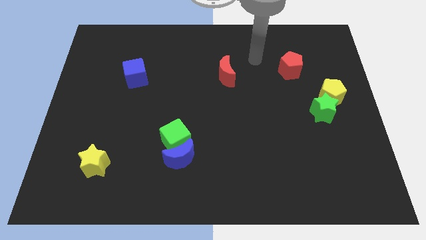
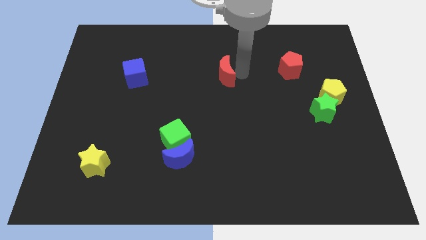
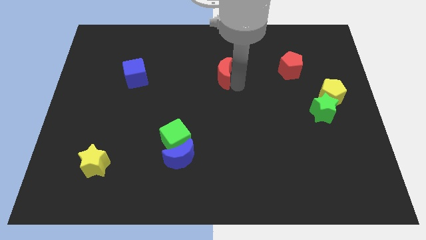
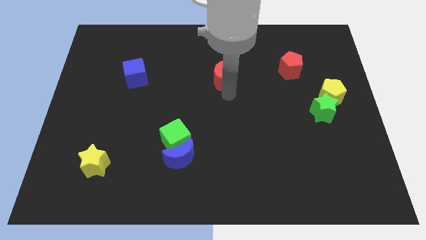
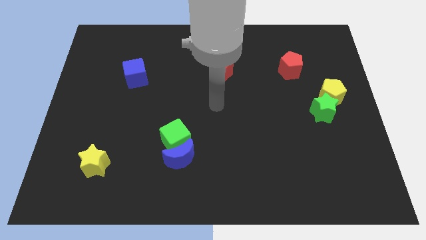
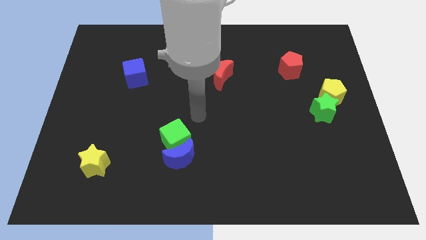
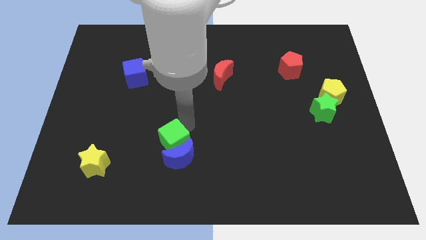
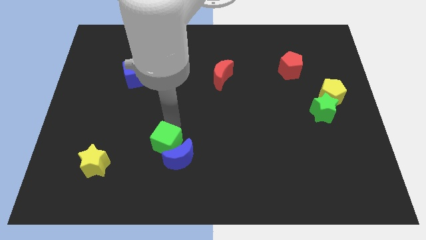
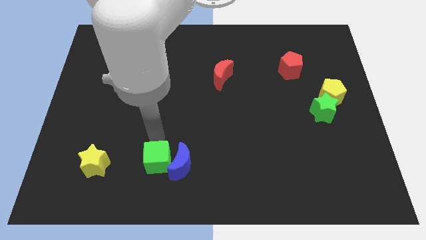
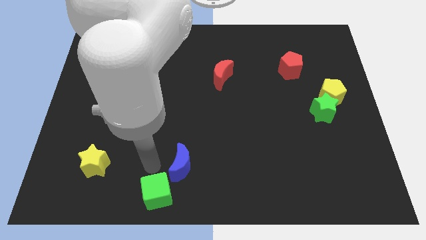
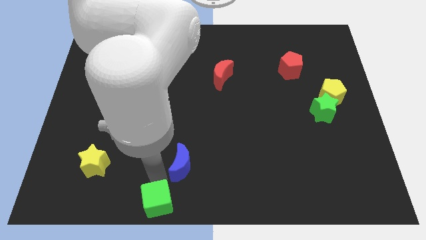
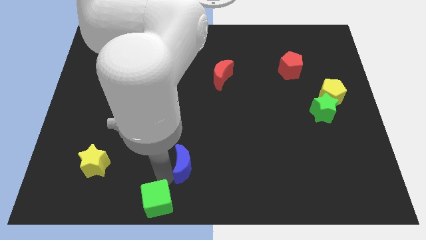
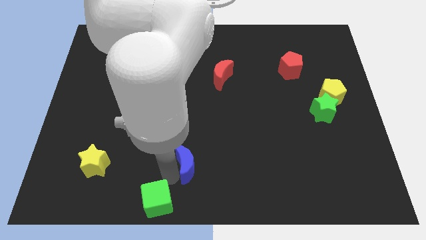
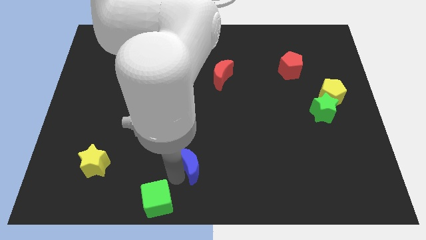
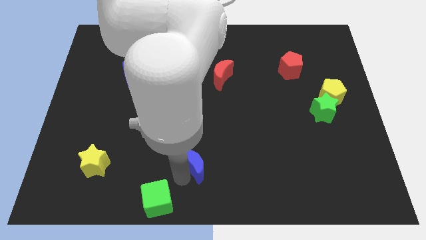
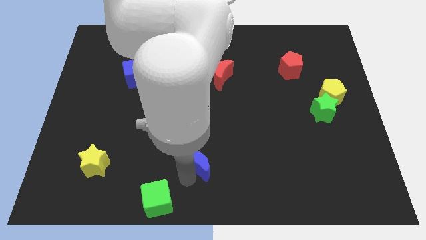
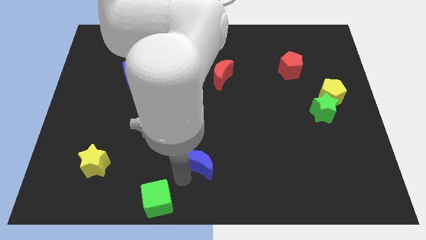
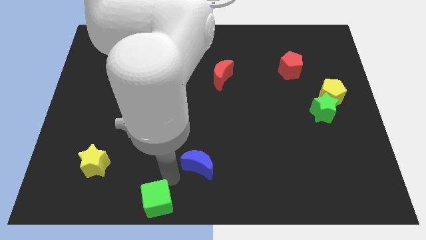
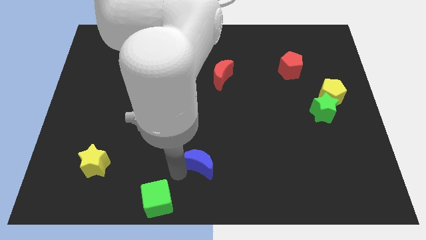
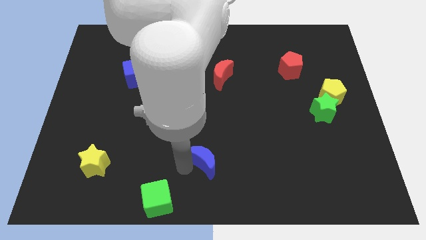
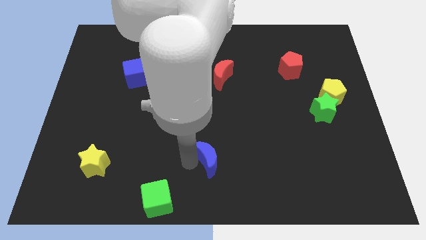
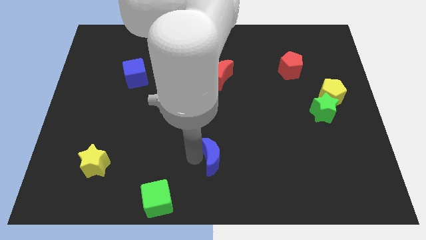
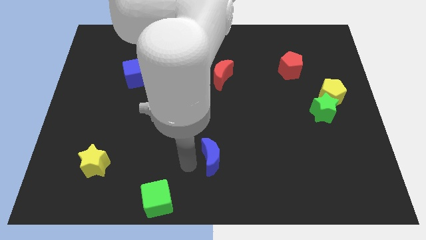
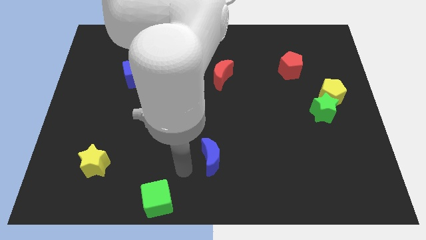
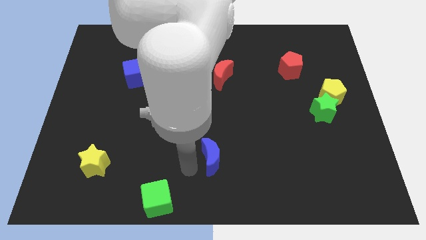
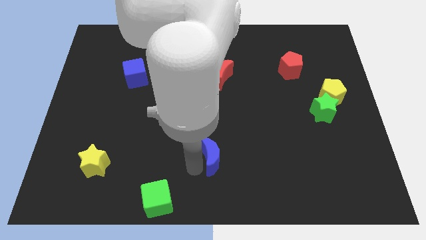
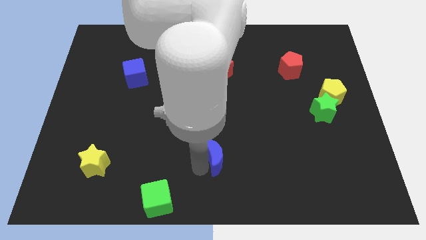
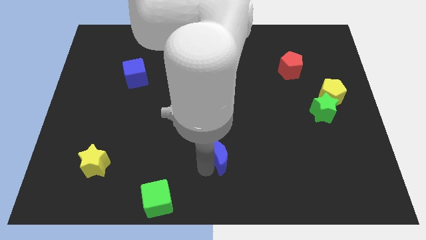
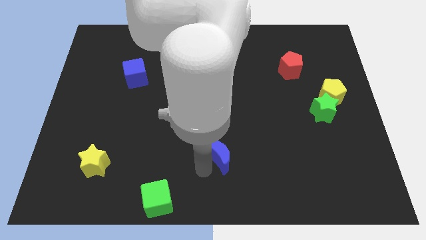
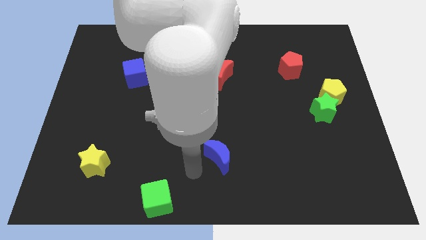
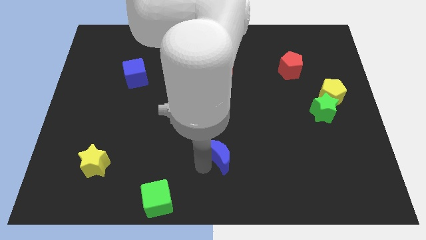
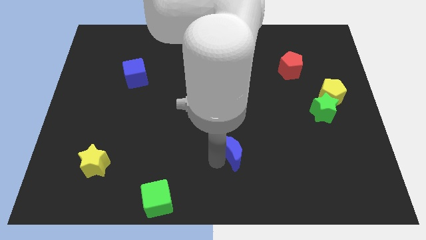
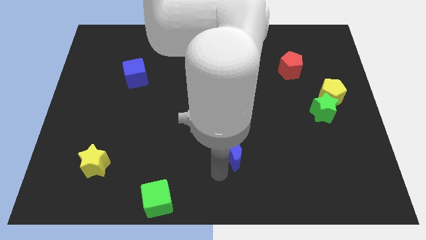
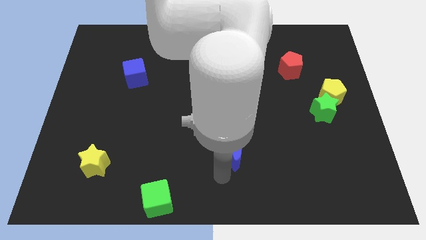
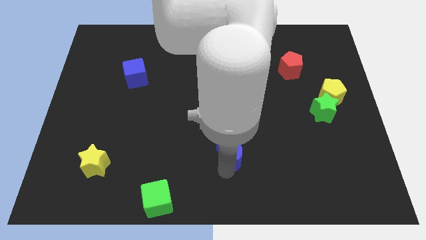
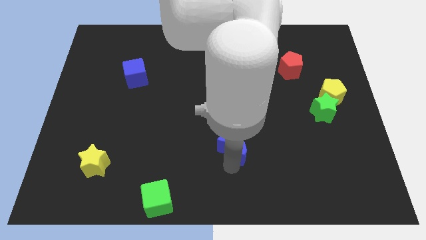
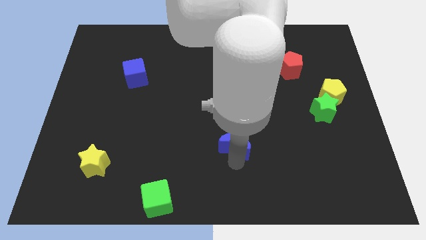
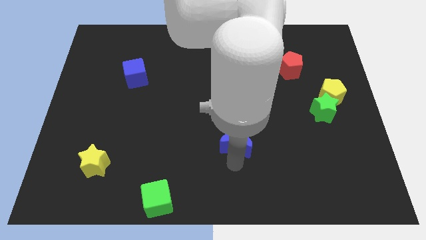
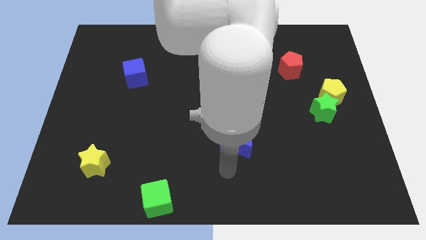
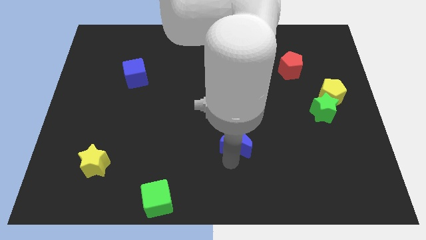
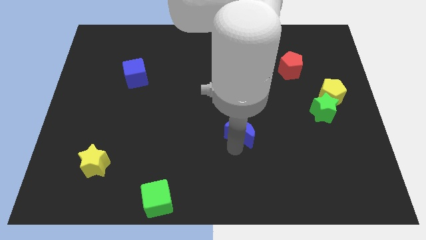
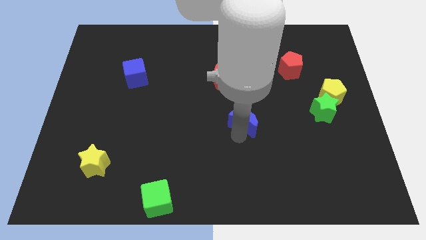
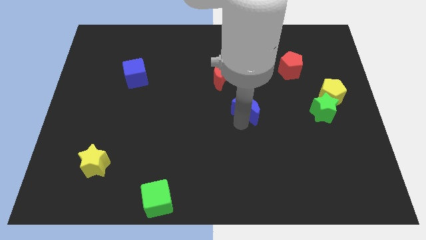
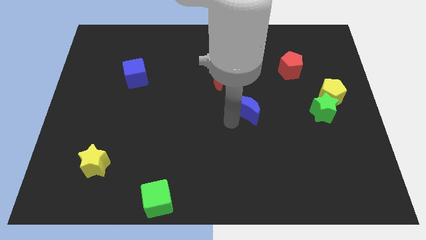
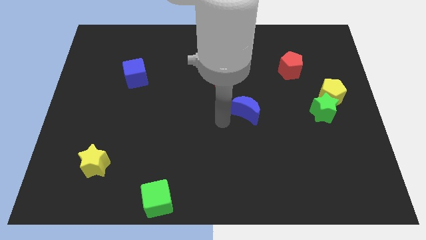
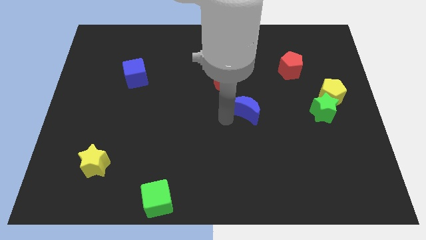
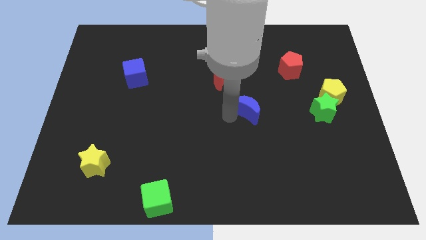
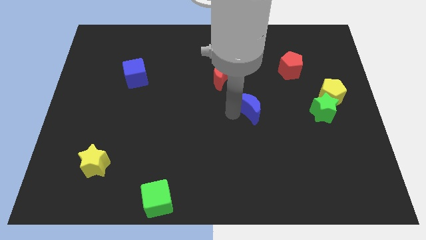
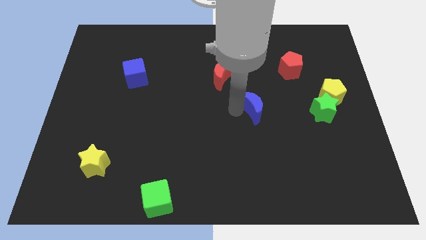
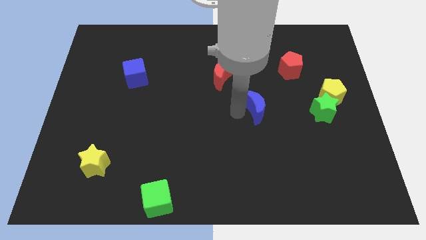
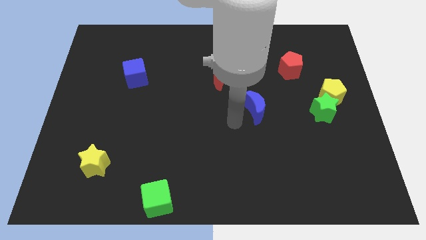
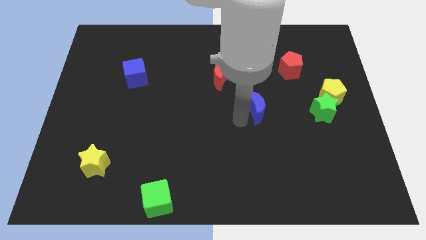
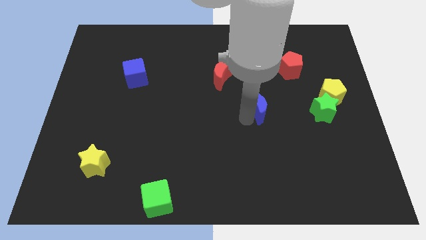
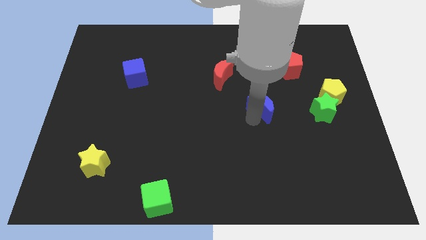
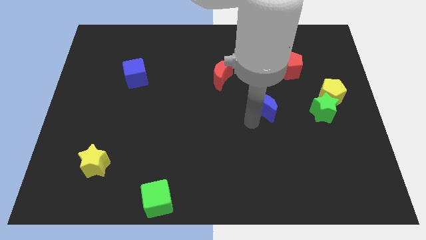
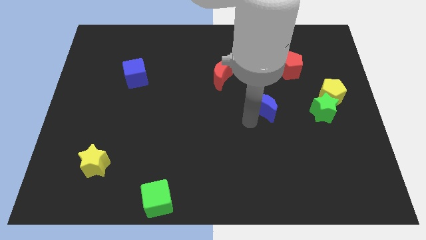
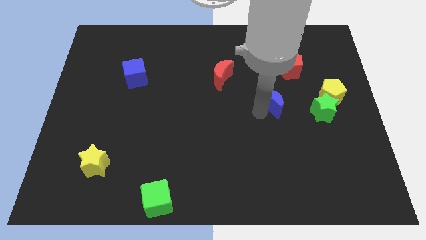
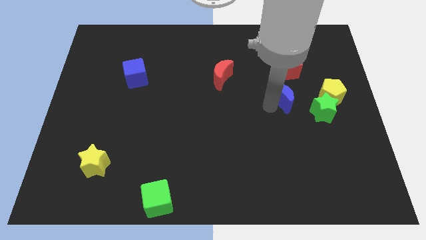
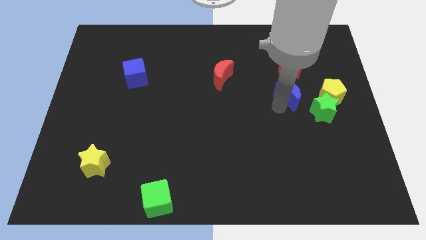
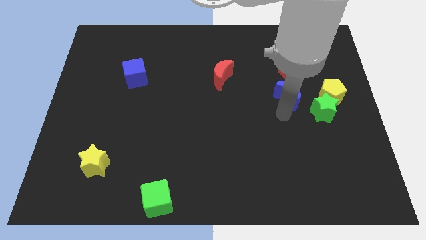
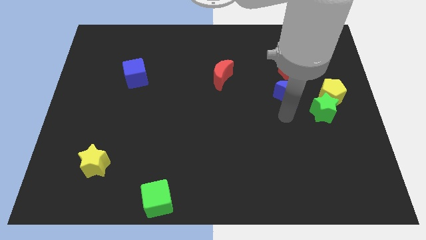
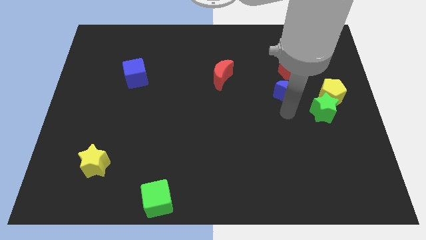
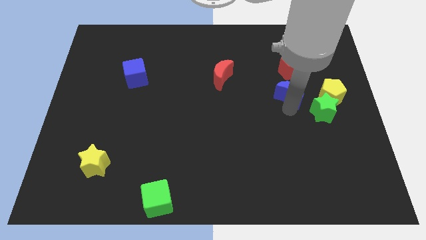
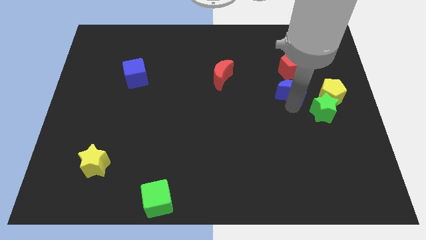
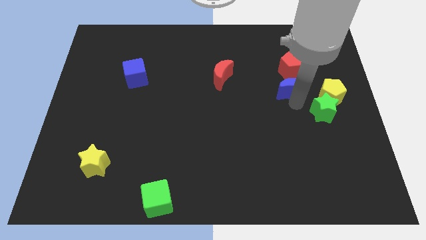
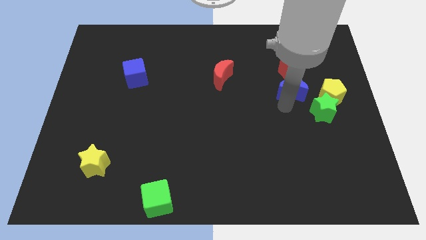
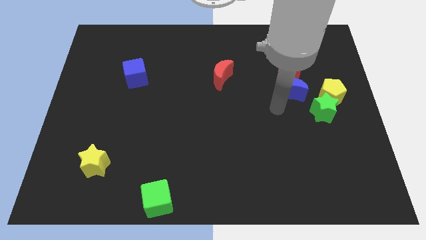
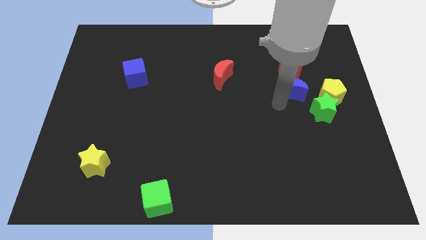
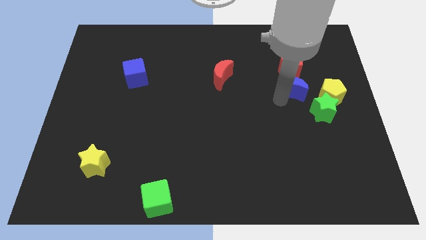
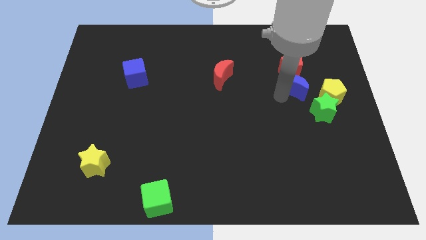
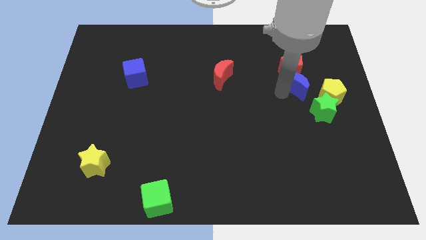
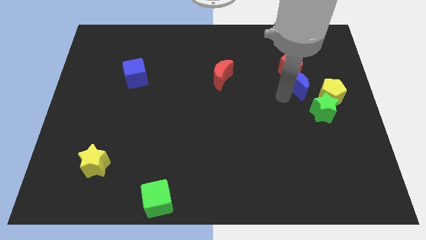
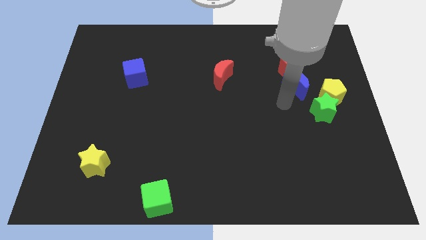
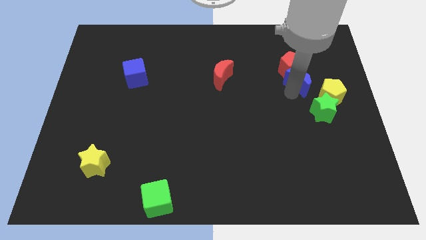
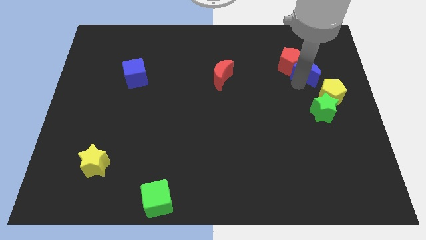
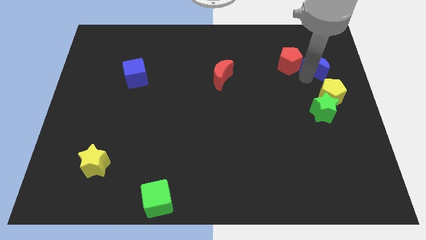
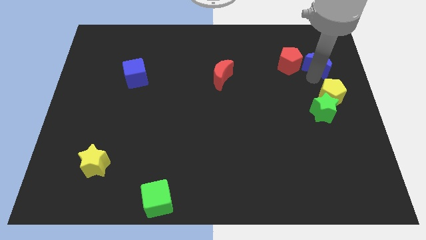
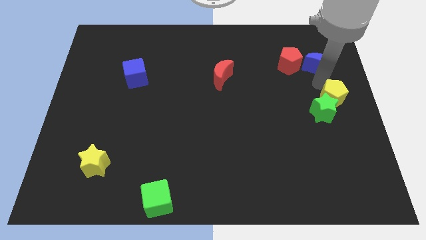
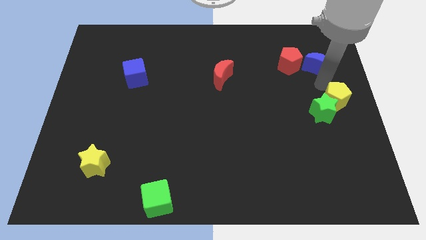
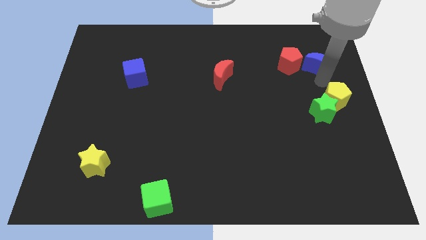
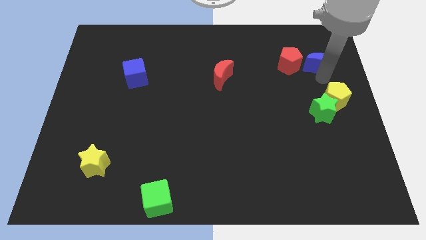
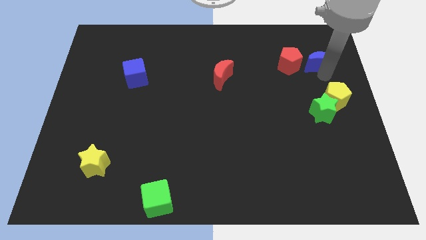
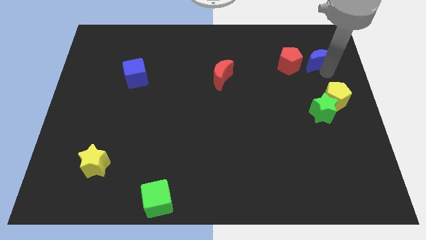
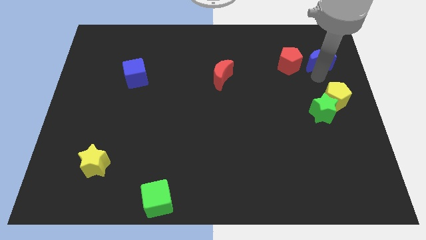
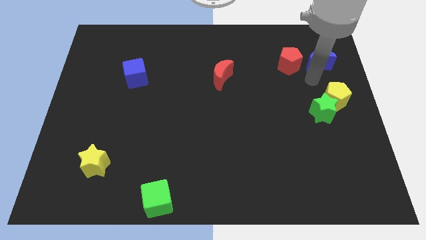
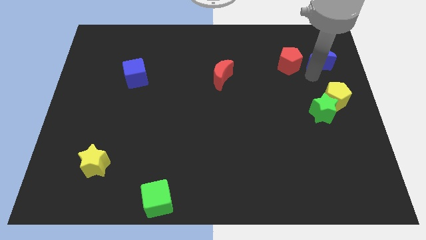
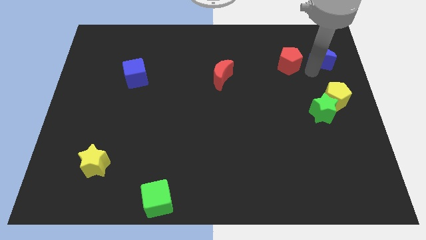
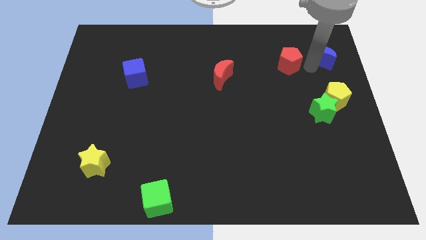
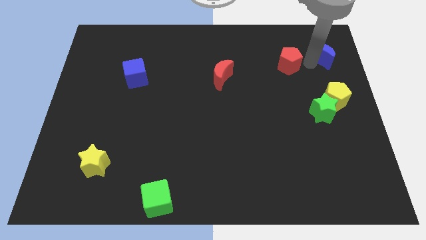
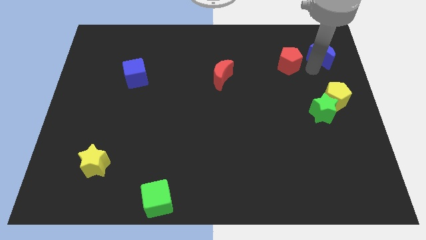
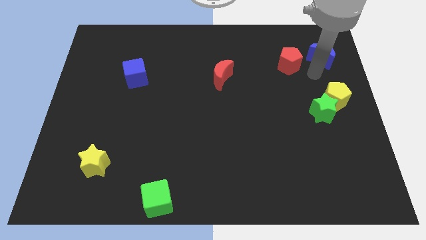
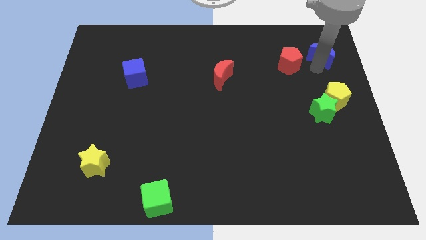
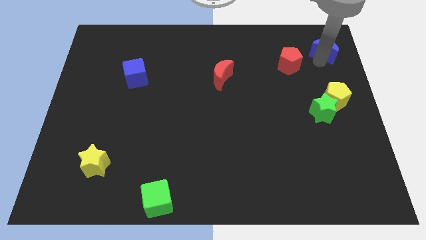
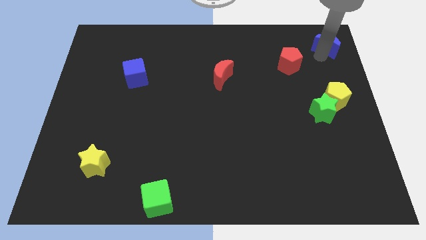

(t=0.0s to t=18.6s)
put the blue moon to the top right corner
